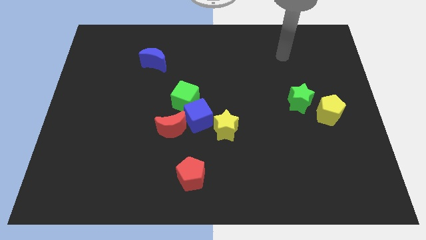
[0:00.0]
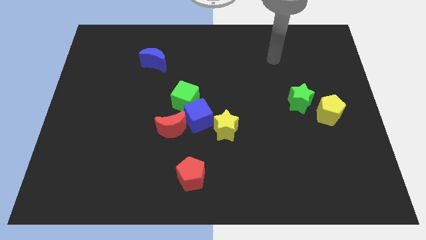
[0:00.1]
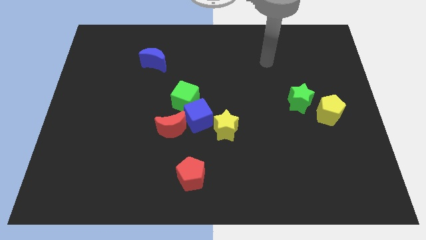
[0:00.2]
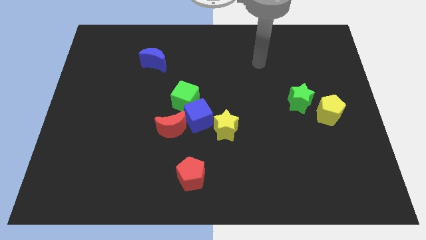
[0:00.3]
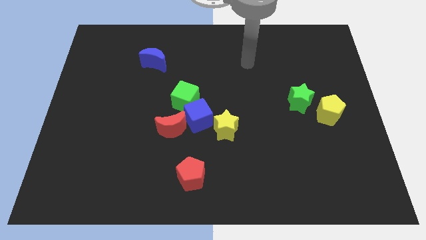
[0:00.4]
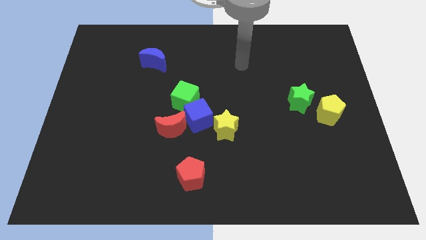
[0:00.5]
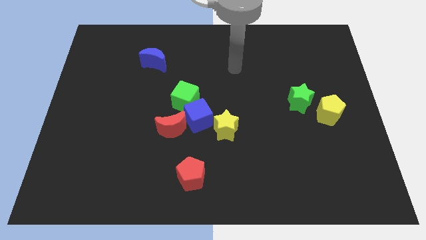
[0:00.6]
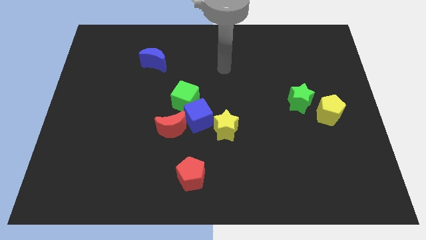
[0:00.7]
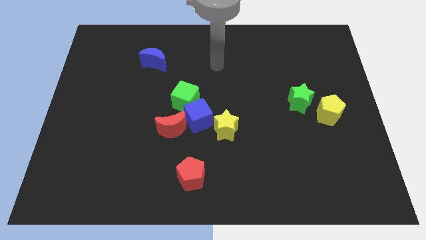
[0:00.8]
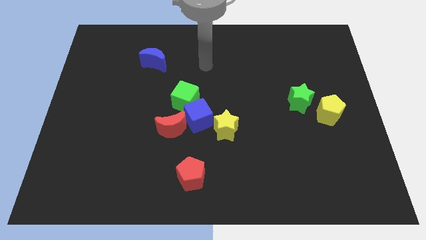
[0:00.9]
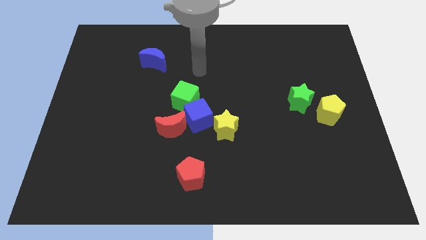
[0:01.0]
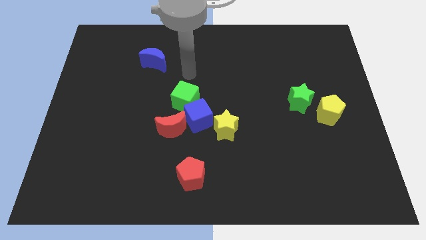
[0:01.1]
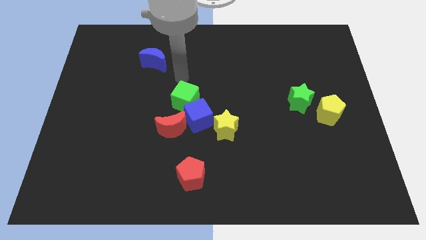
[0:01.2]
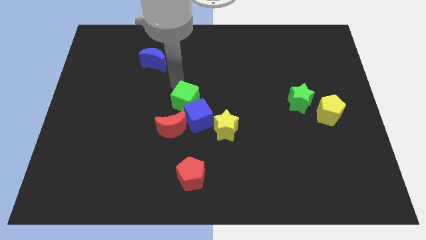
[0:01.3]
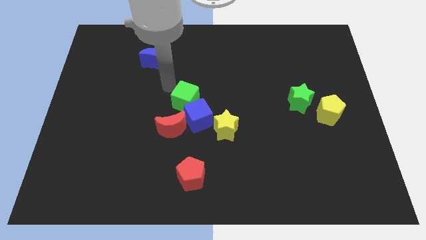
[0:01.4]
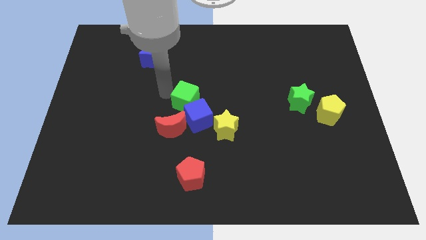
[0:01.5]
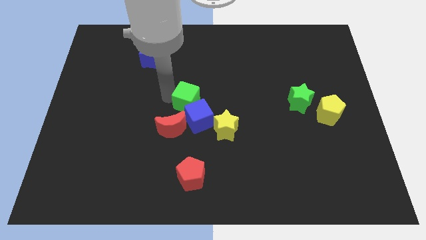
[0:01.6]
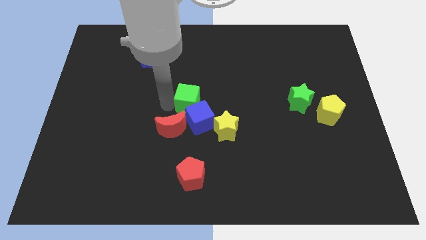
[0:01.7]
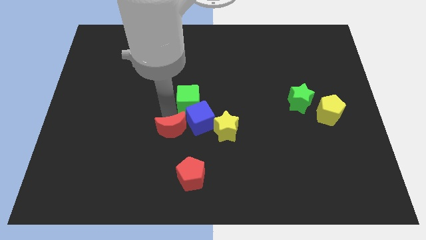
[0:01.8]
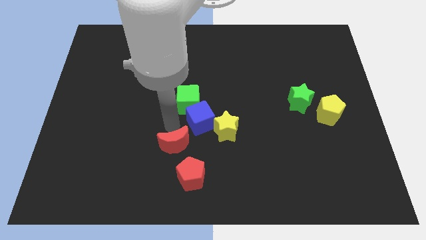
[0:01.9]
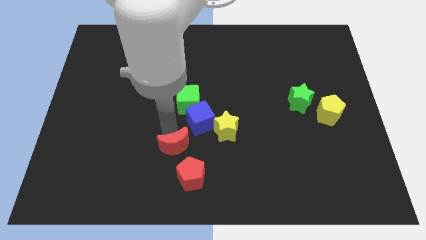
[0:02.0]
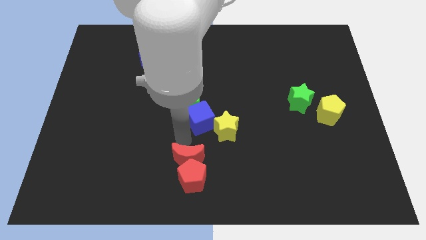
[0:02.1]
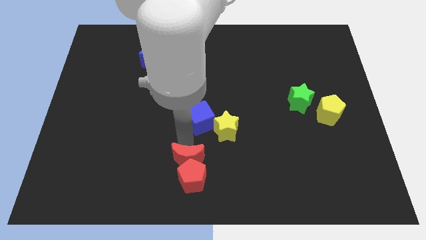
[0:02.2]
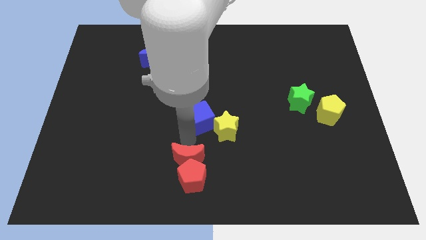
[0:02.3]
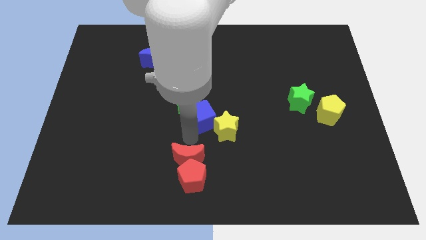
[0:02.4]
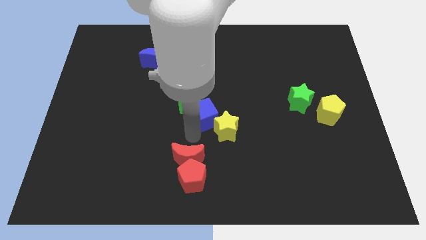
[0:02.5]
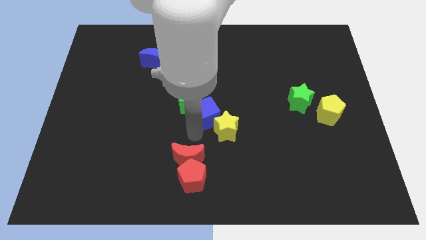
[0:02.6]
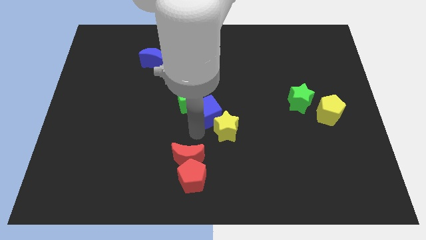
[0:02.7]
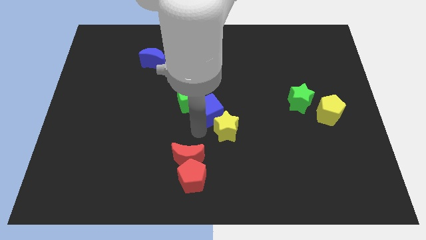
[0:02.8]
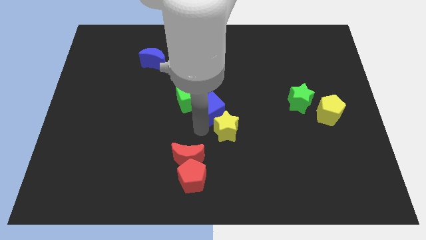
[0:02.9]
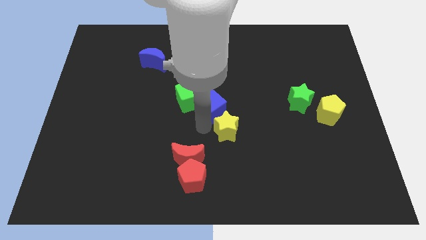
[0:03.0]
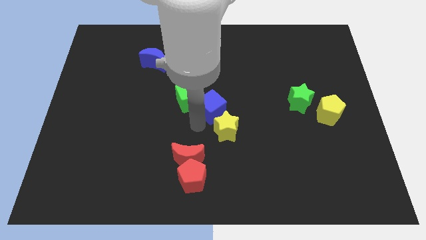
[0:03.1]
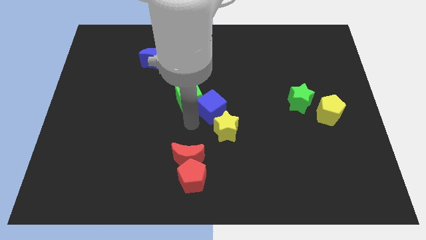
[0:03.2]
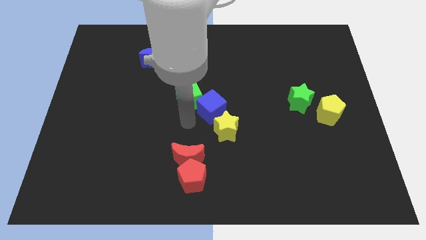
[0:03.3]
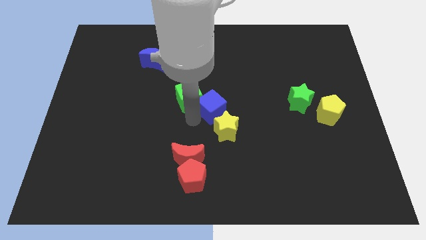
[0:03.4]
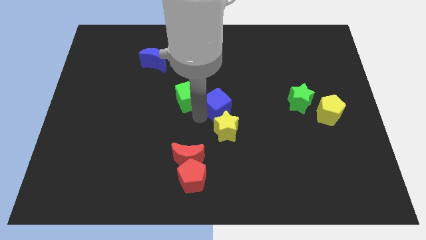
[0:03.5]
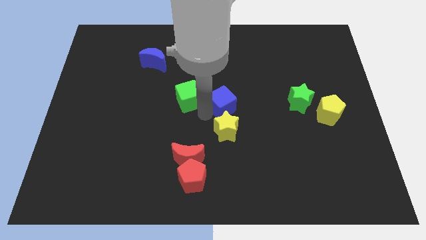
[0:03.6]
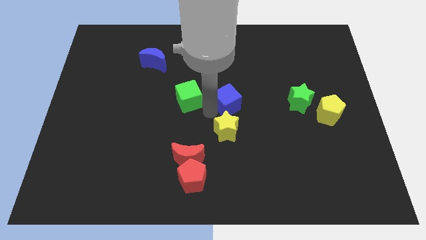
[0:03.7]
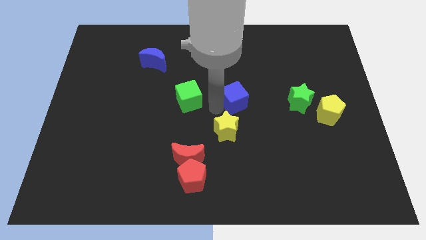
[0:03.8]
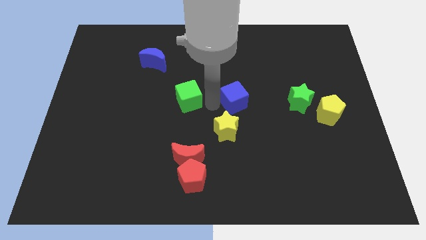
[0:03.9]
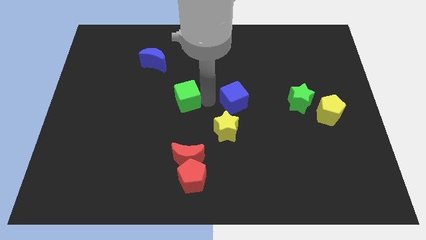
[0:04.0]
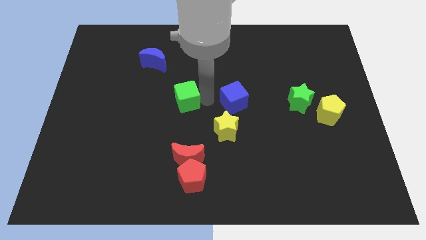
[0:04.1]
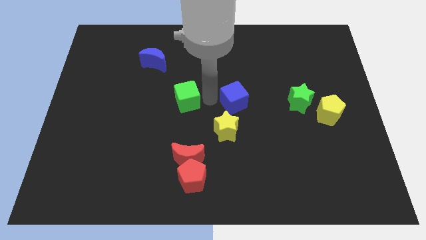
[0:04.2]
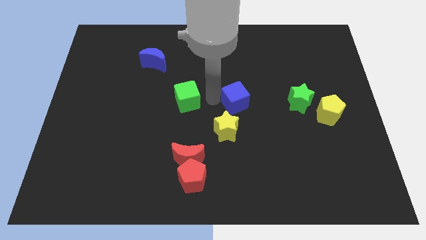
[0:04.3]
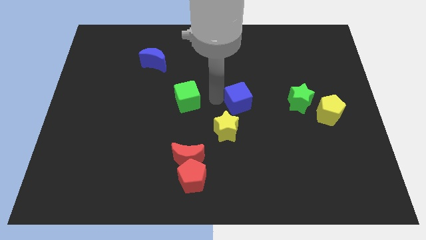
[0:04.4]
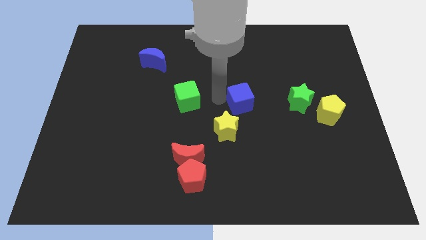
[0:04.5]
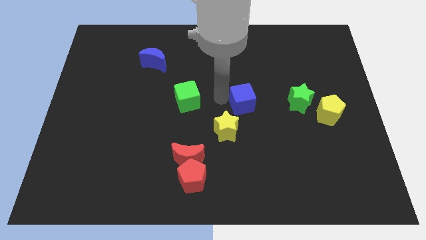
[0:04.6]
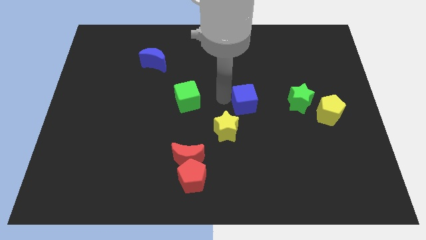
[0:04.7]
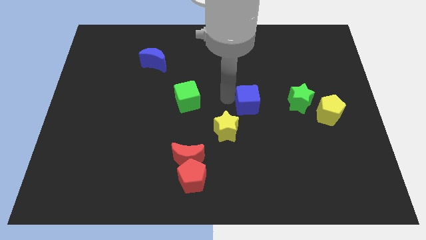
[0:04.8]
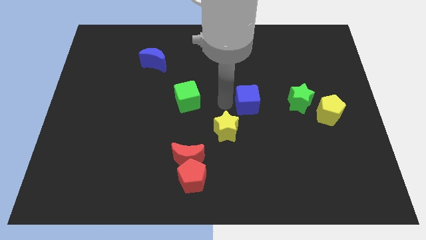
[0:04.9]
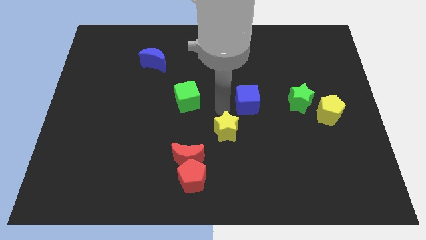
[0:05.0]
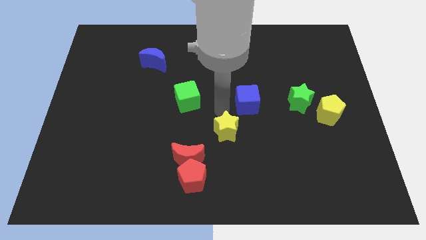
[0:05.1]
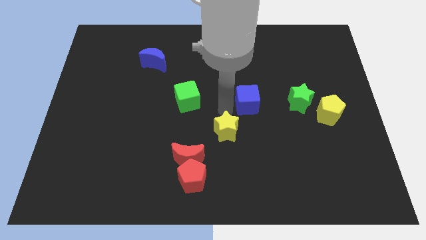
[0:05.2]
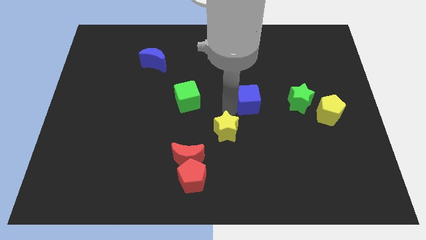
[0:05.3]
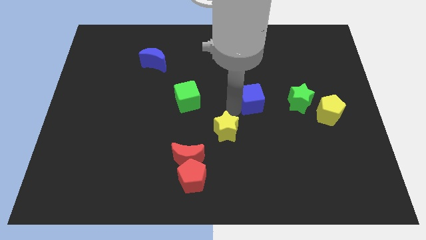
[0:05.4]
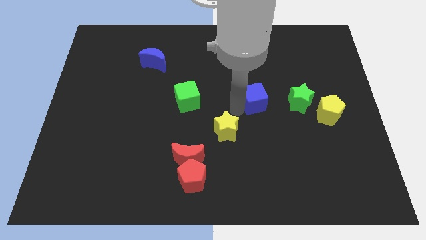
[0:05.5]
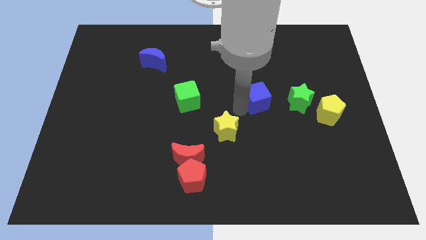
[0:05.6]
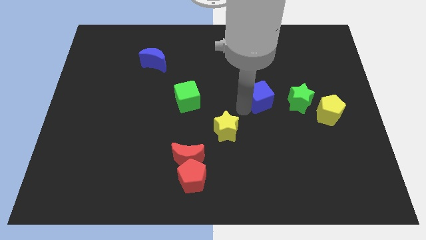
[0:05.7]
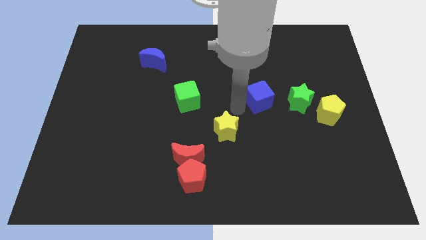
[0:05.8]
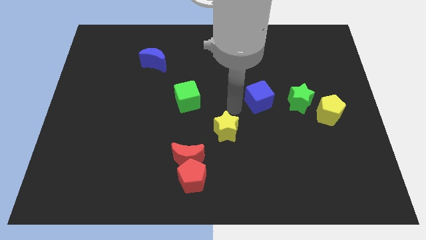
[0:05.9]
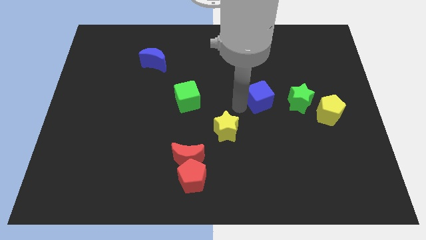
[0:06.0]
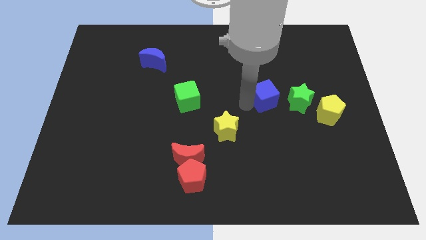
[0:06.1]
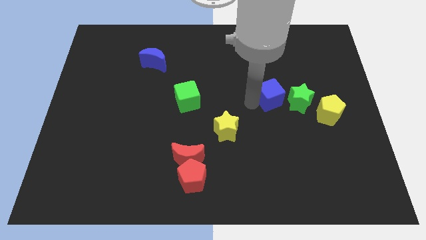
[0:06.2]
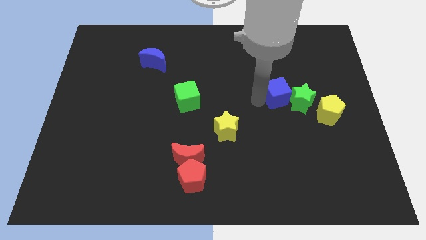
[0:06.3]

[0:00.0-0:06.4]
move the blue cube towards the green star

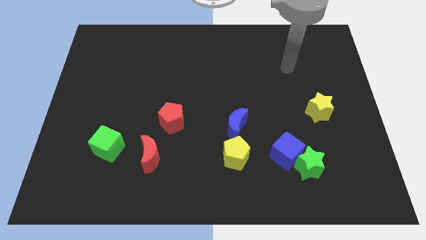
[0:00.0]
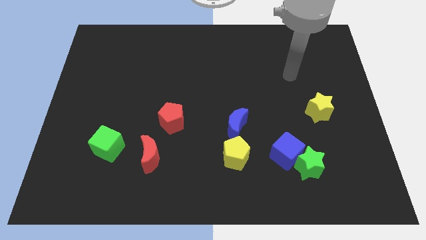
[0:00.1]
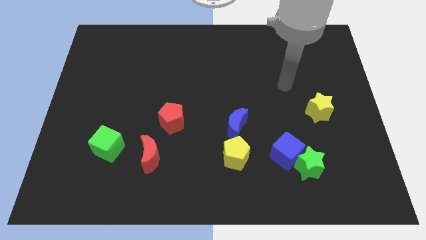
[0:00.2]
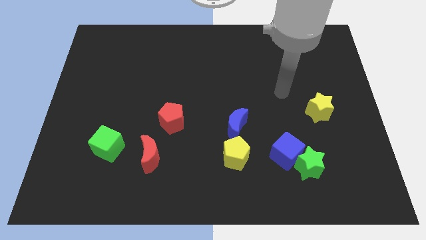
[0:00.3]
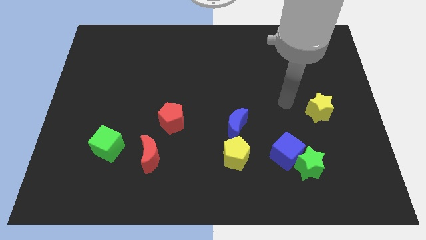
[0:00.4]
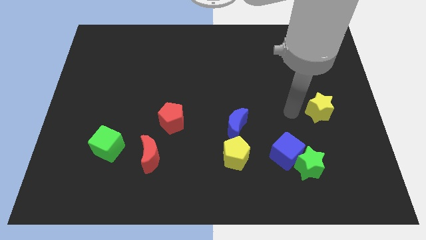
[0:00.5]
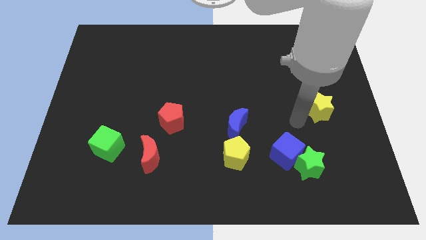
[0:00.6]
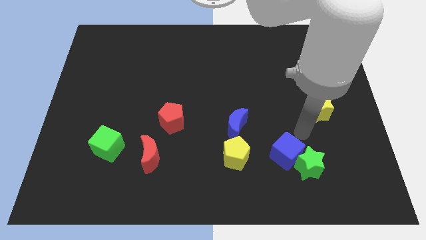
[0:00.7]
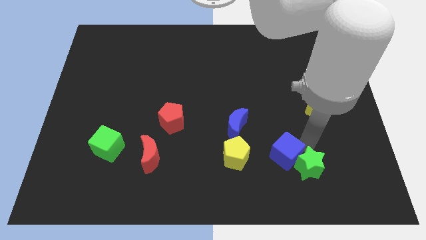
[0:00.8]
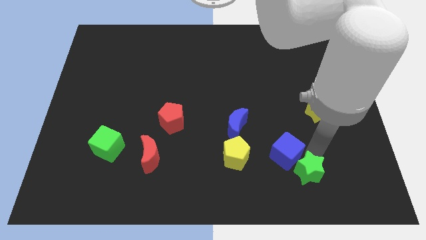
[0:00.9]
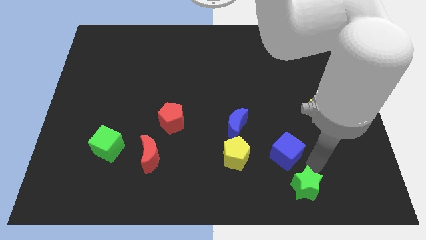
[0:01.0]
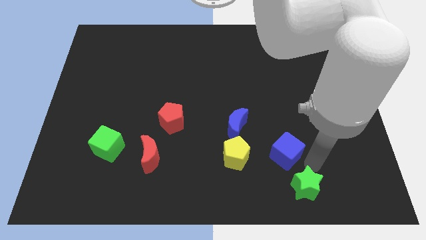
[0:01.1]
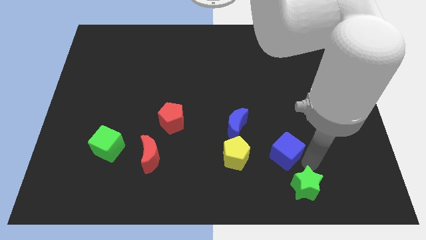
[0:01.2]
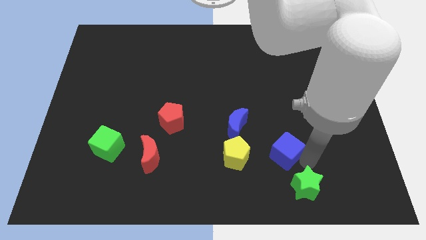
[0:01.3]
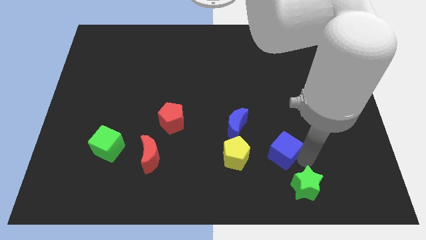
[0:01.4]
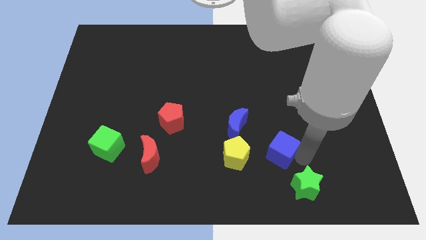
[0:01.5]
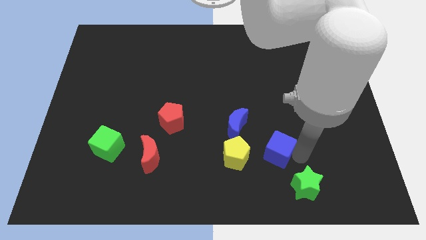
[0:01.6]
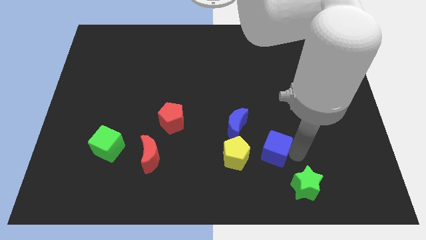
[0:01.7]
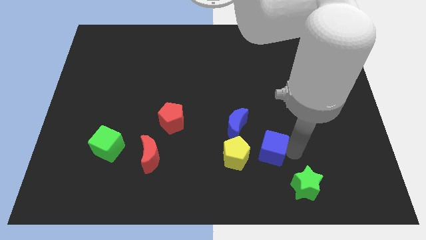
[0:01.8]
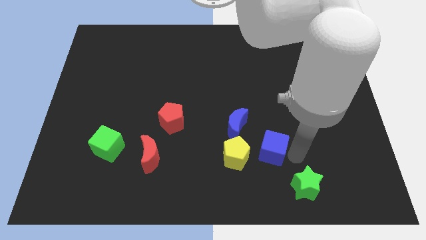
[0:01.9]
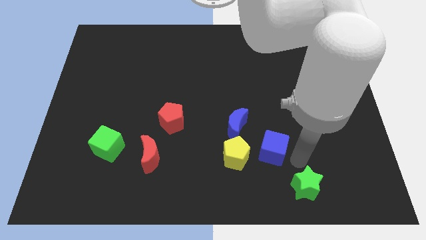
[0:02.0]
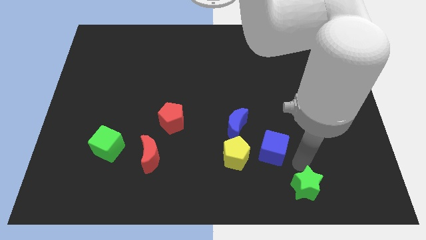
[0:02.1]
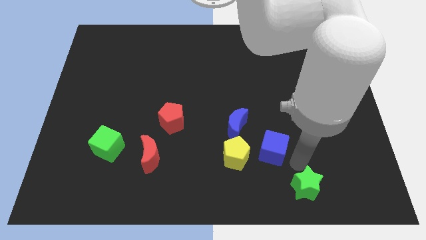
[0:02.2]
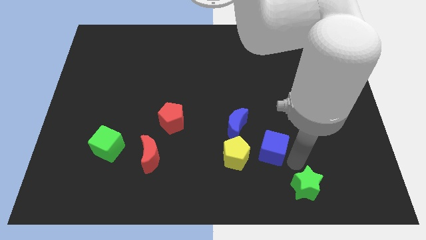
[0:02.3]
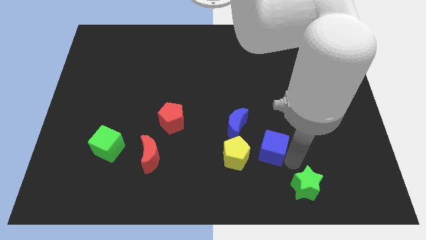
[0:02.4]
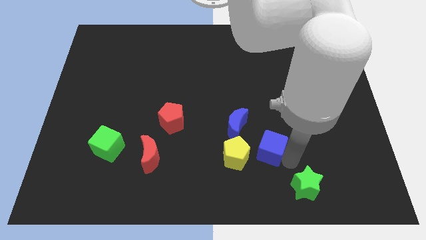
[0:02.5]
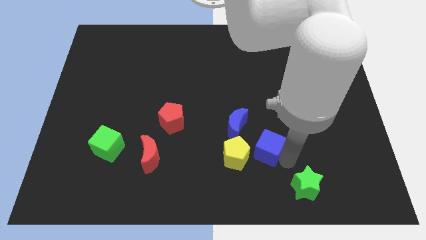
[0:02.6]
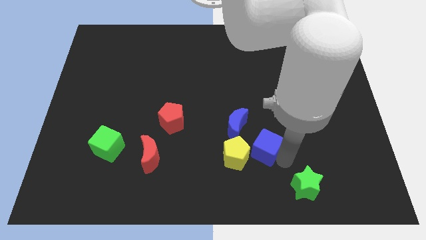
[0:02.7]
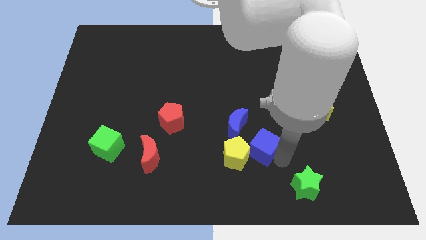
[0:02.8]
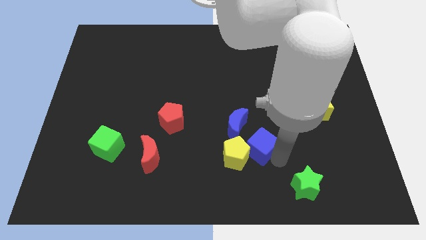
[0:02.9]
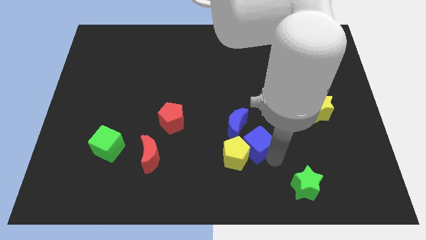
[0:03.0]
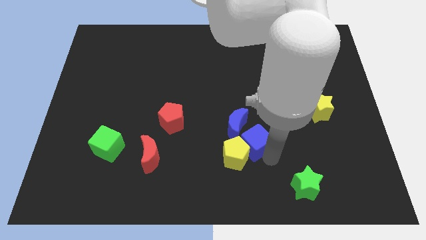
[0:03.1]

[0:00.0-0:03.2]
slide the blue cube close to the blue moon
